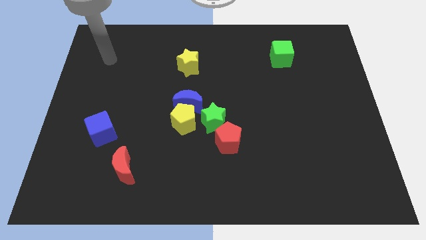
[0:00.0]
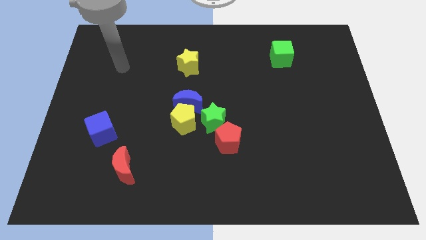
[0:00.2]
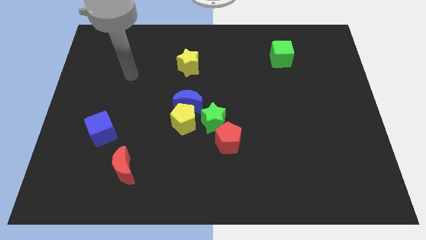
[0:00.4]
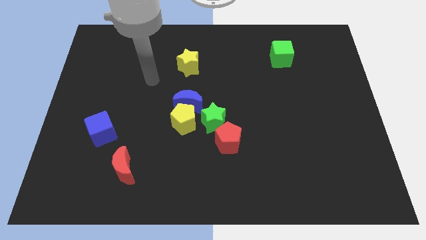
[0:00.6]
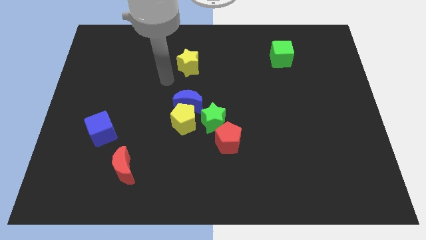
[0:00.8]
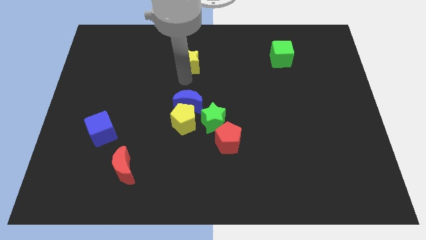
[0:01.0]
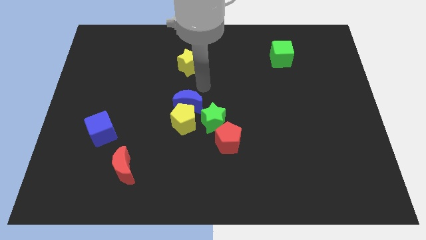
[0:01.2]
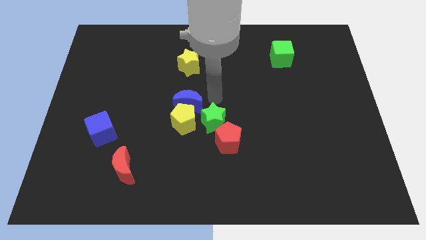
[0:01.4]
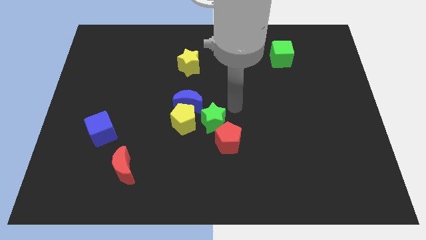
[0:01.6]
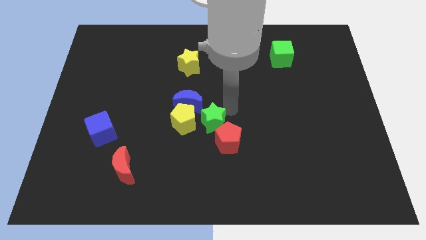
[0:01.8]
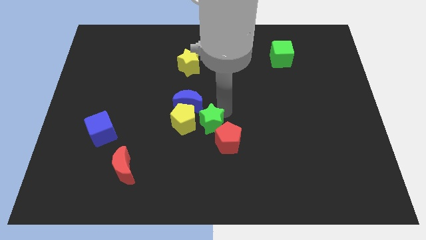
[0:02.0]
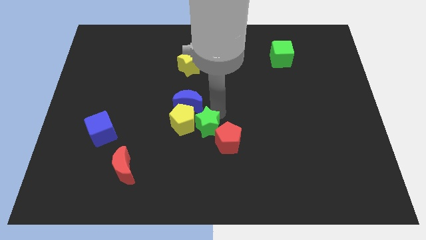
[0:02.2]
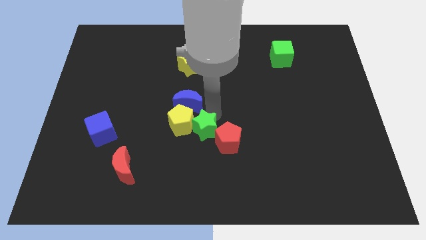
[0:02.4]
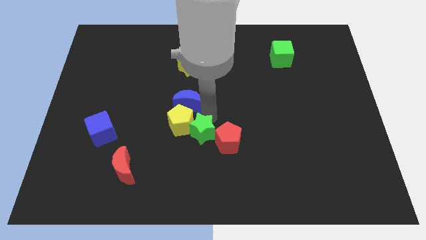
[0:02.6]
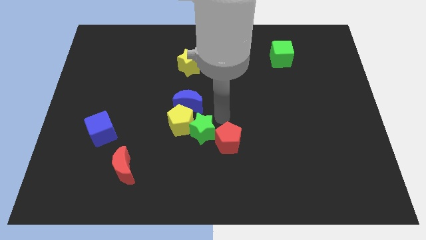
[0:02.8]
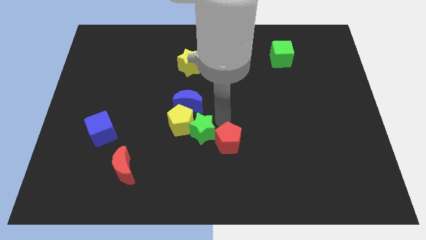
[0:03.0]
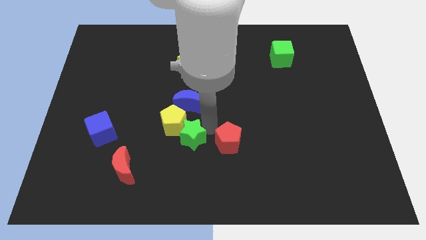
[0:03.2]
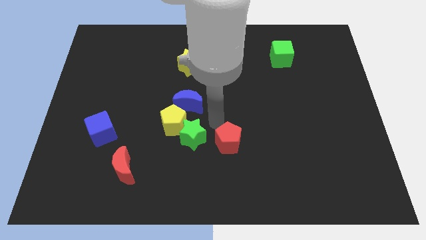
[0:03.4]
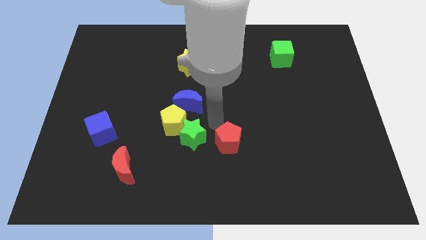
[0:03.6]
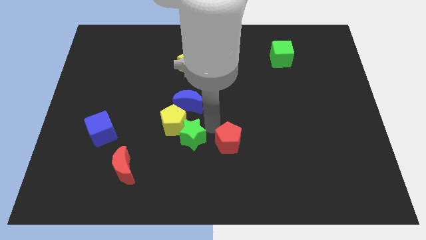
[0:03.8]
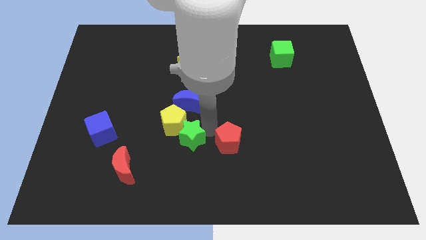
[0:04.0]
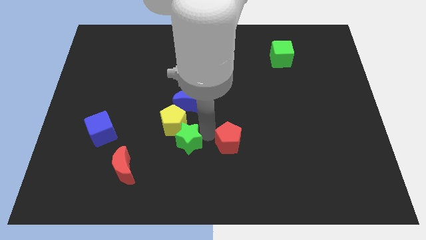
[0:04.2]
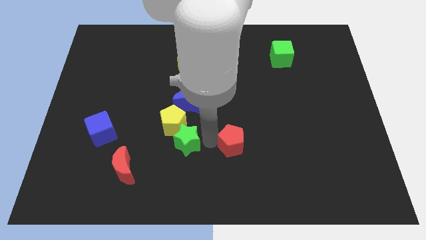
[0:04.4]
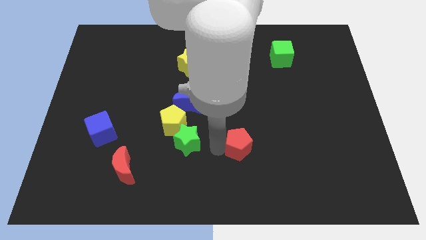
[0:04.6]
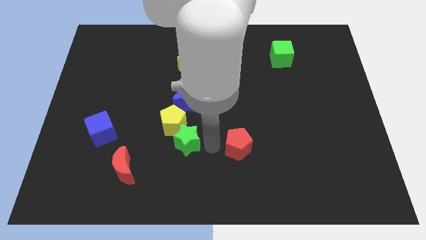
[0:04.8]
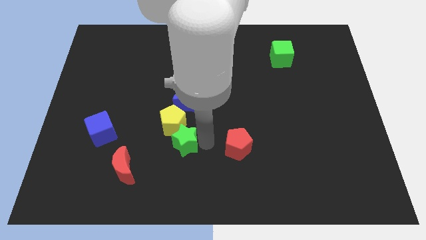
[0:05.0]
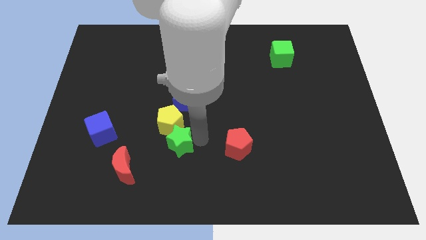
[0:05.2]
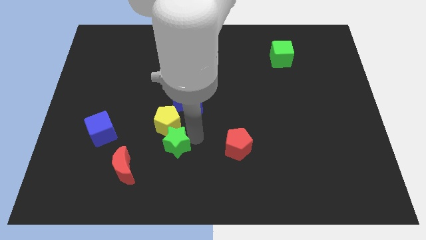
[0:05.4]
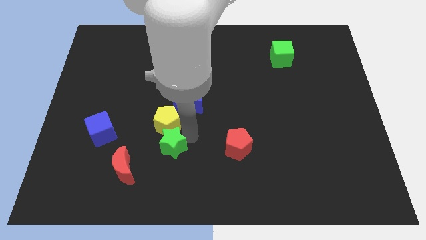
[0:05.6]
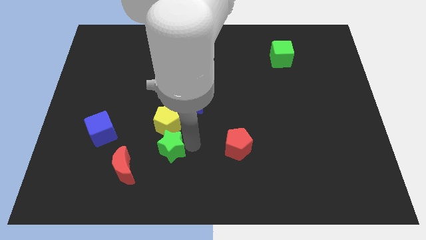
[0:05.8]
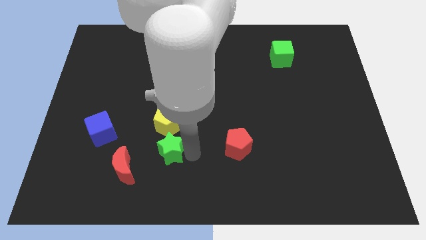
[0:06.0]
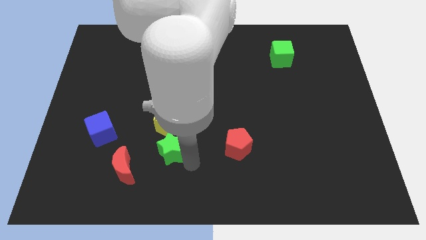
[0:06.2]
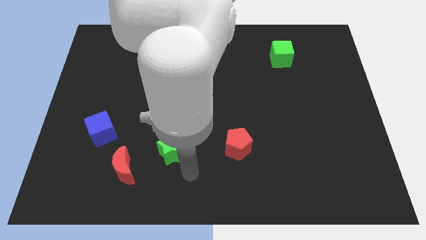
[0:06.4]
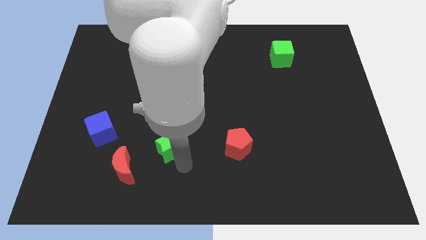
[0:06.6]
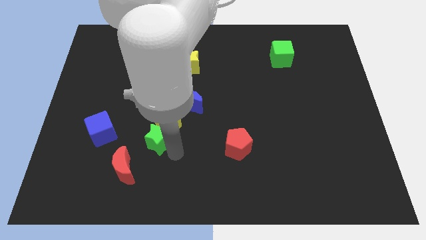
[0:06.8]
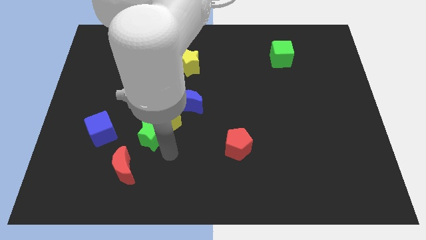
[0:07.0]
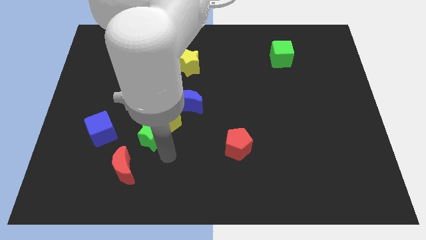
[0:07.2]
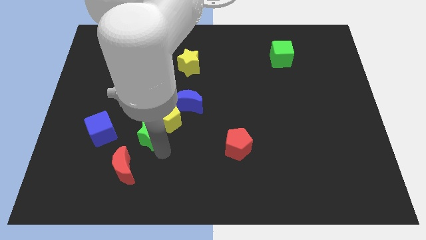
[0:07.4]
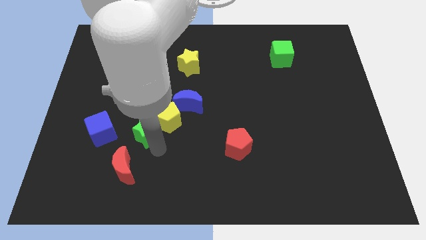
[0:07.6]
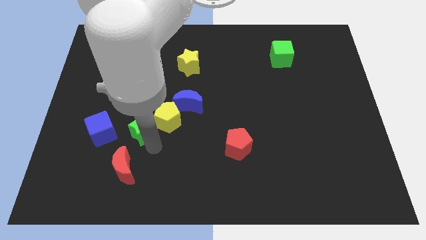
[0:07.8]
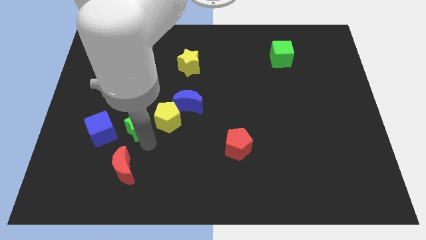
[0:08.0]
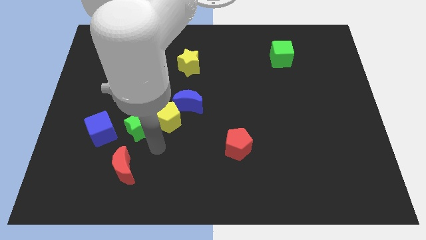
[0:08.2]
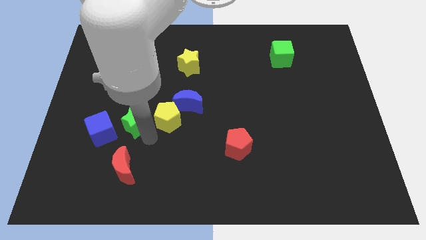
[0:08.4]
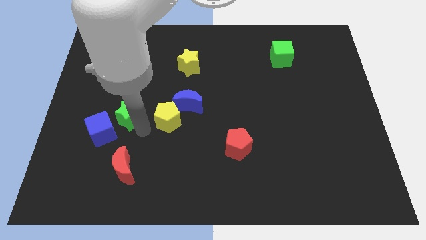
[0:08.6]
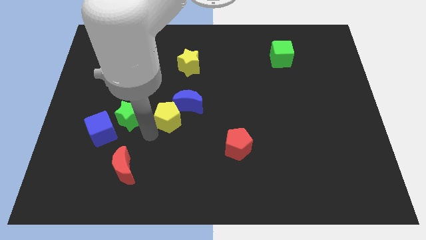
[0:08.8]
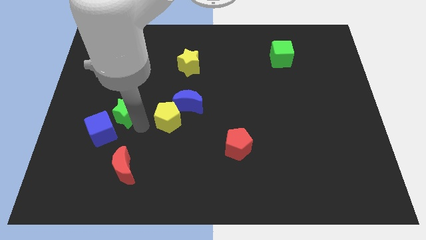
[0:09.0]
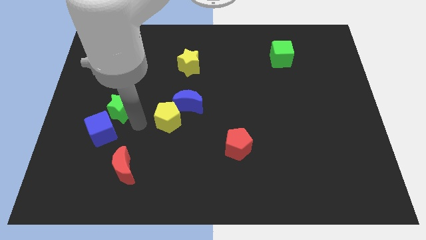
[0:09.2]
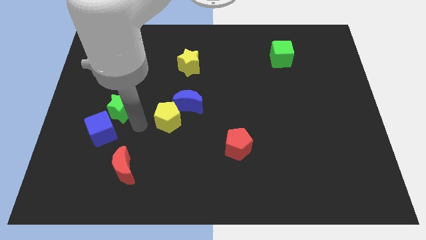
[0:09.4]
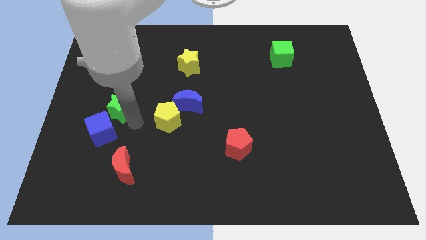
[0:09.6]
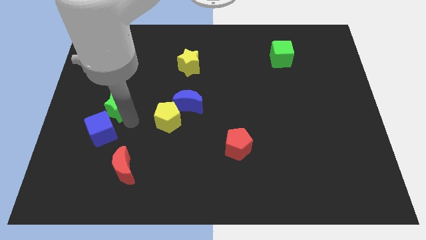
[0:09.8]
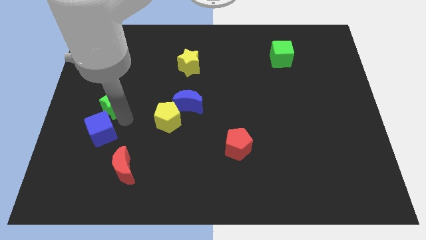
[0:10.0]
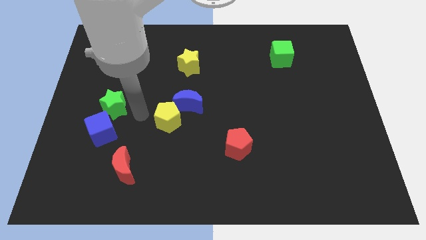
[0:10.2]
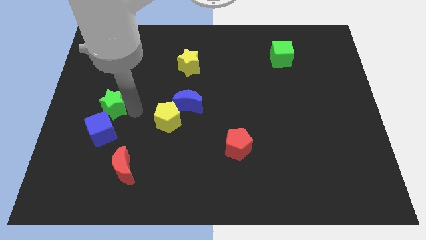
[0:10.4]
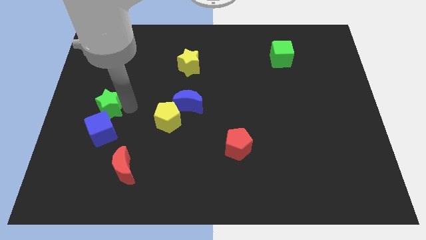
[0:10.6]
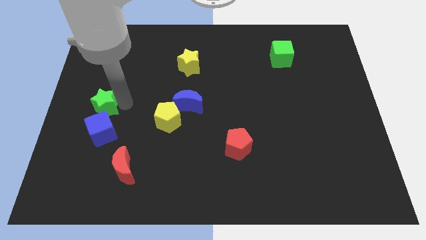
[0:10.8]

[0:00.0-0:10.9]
move the green star to the left side of the board

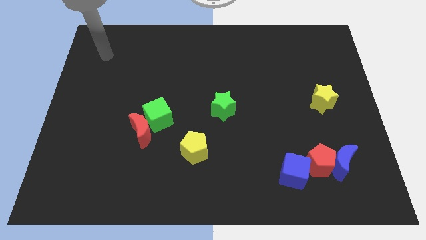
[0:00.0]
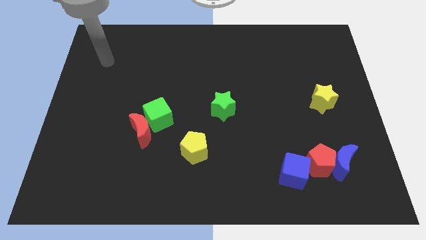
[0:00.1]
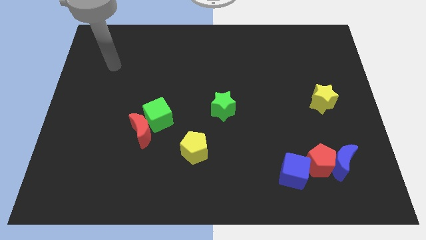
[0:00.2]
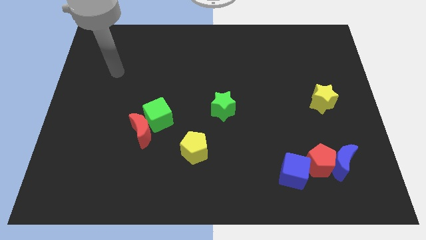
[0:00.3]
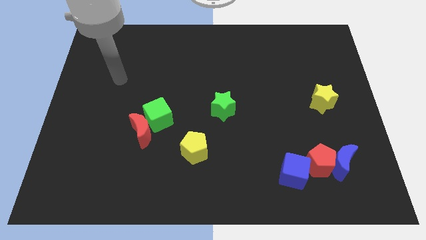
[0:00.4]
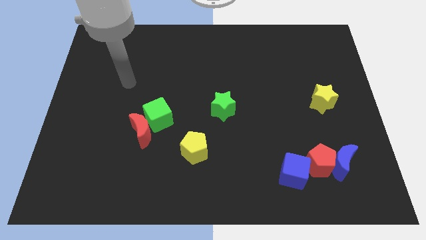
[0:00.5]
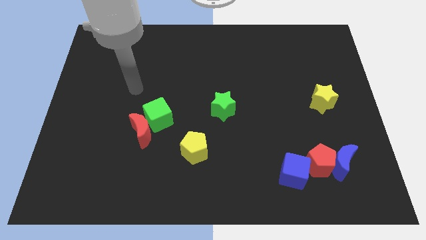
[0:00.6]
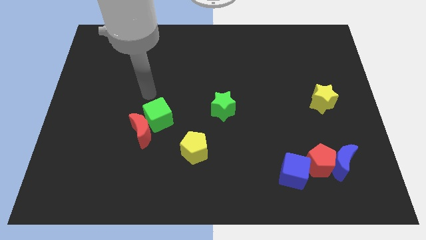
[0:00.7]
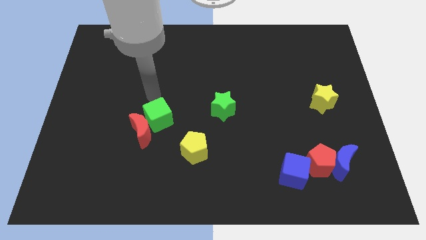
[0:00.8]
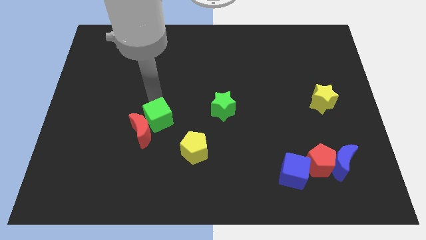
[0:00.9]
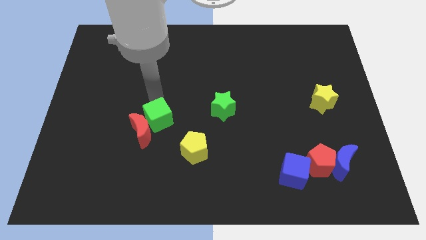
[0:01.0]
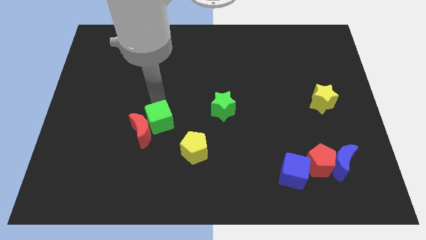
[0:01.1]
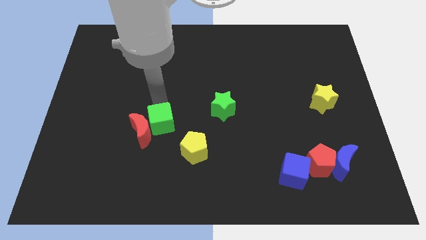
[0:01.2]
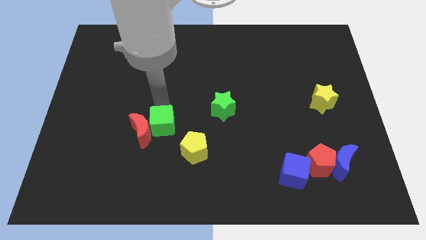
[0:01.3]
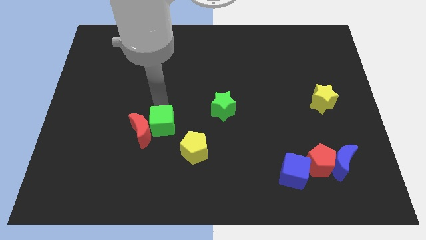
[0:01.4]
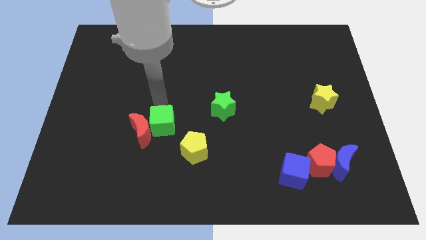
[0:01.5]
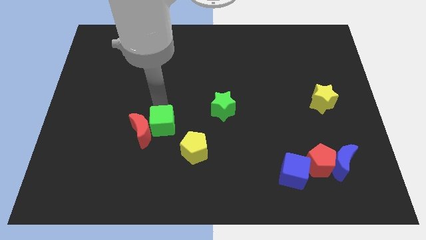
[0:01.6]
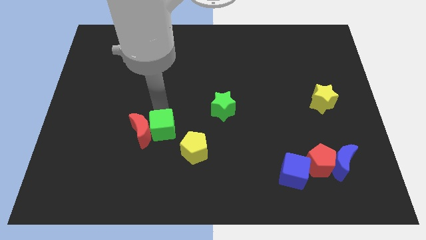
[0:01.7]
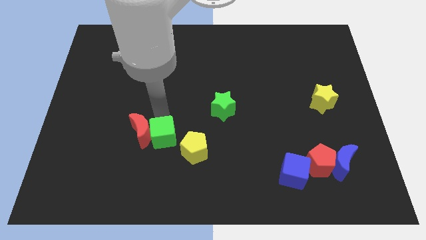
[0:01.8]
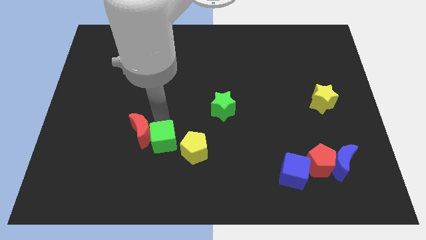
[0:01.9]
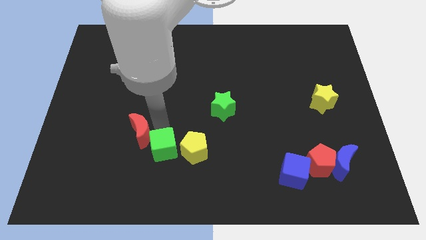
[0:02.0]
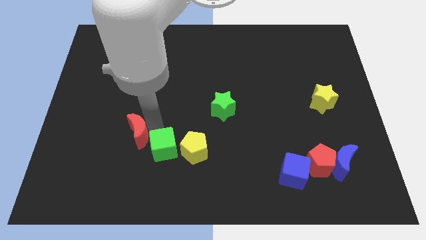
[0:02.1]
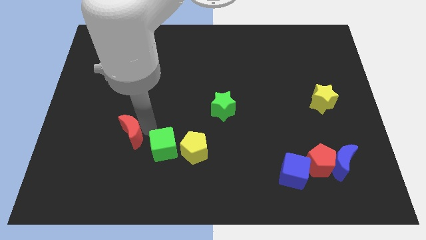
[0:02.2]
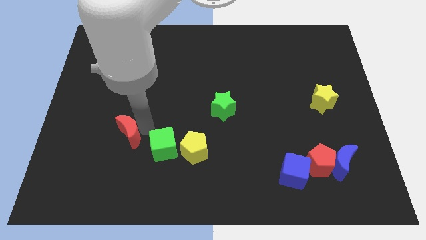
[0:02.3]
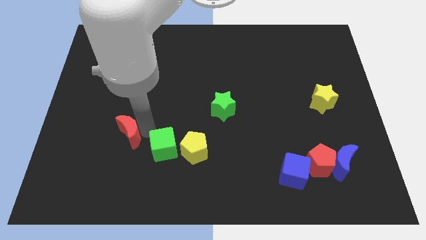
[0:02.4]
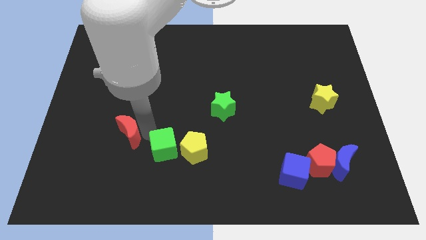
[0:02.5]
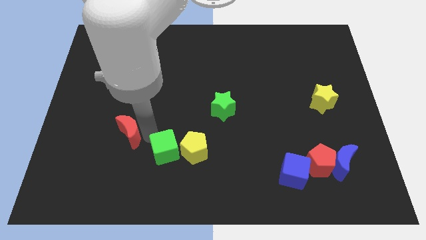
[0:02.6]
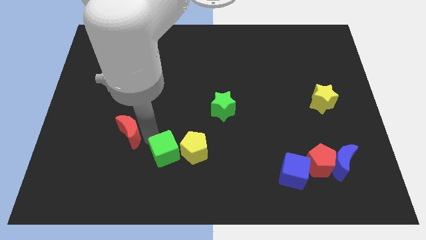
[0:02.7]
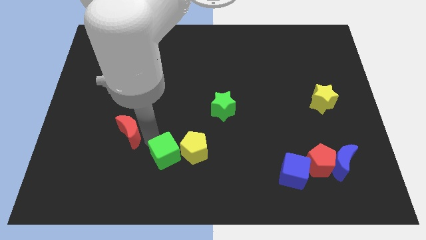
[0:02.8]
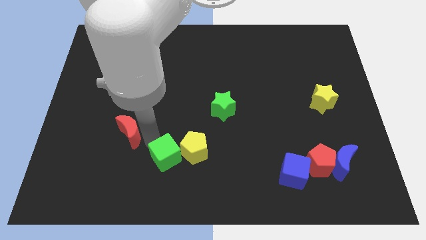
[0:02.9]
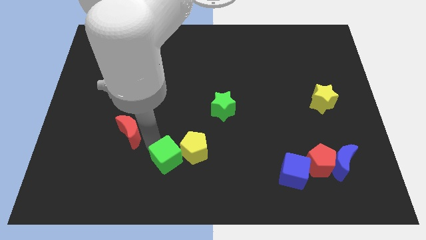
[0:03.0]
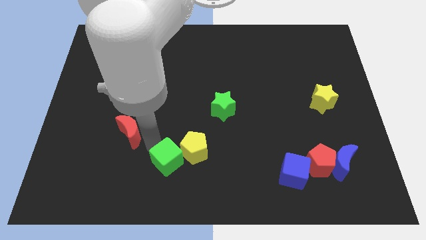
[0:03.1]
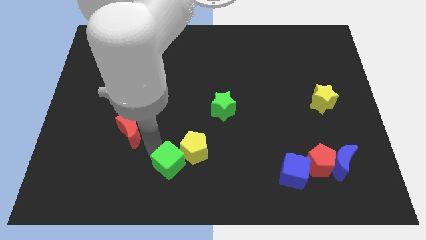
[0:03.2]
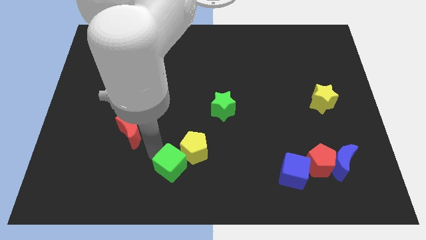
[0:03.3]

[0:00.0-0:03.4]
move the green cube to the bottom
